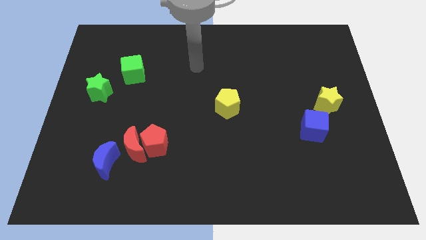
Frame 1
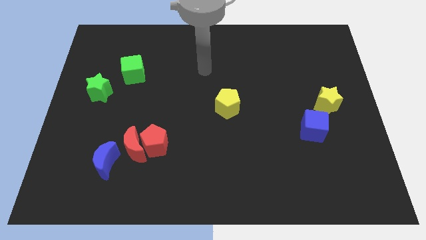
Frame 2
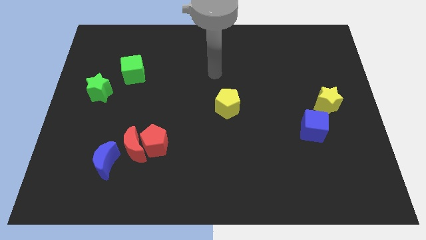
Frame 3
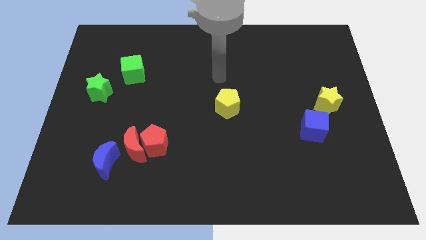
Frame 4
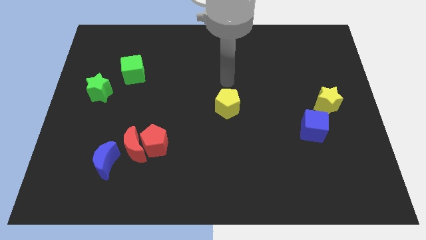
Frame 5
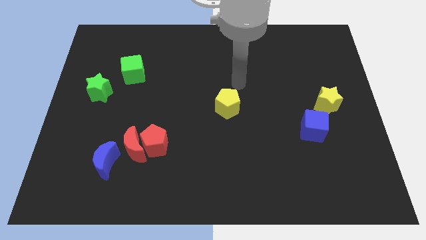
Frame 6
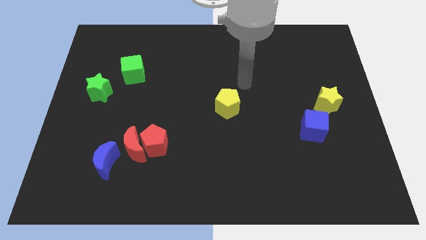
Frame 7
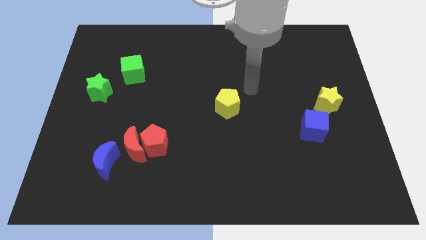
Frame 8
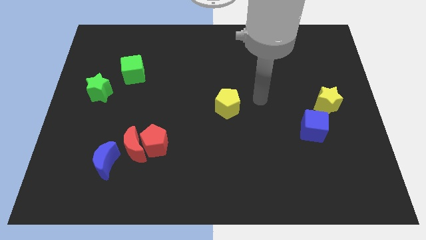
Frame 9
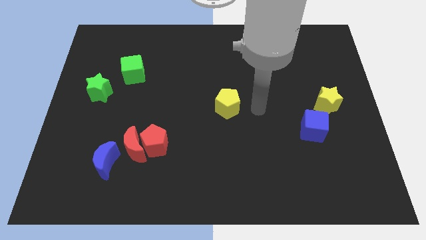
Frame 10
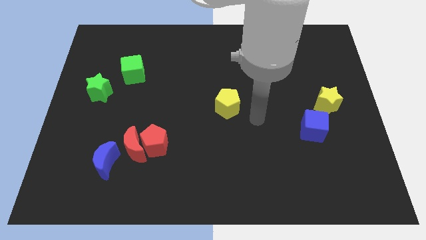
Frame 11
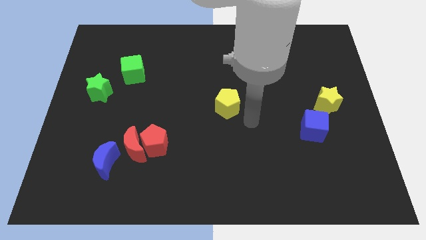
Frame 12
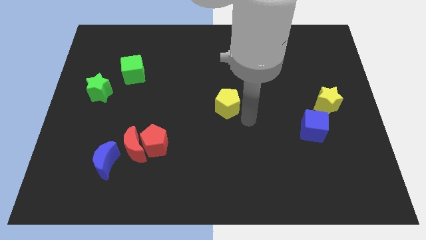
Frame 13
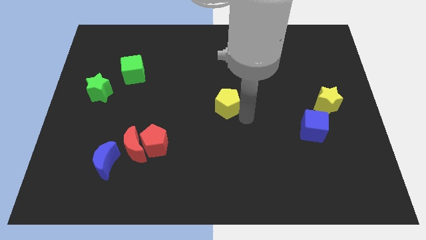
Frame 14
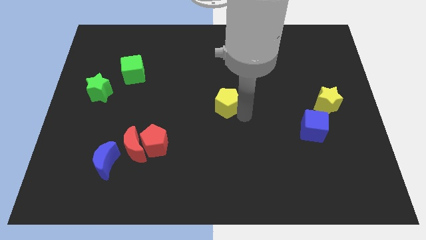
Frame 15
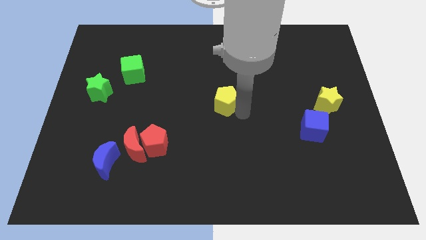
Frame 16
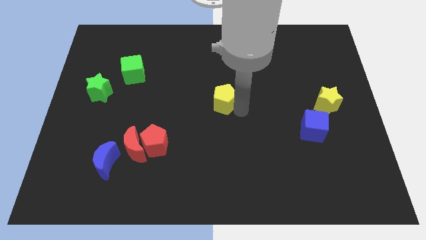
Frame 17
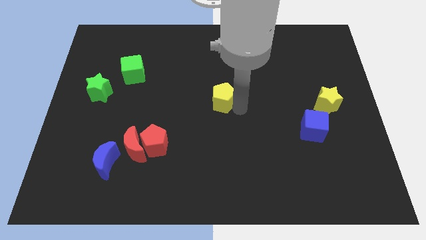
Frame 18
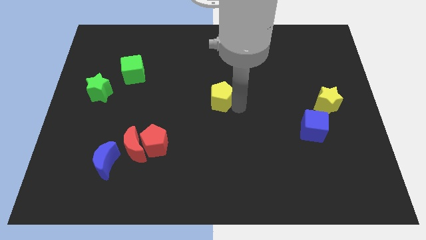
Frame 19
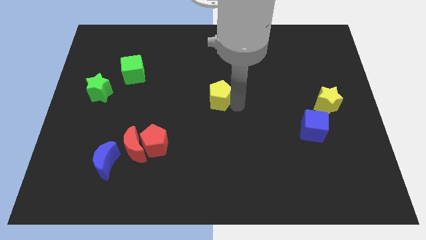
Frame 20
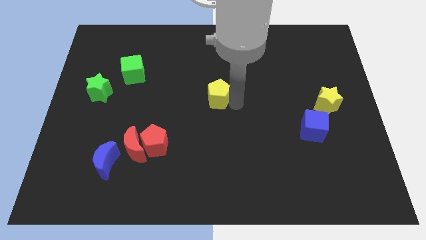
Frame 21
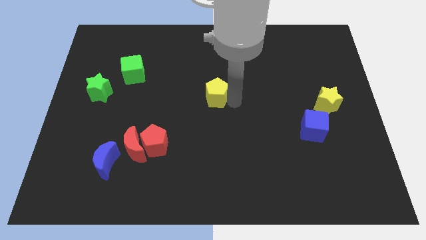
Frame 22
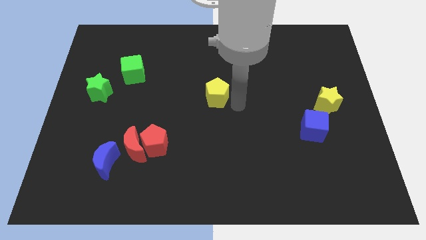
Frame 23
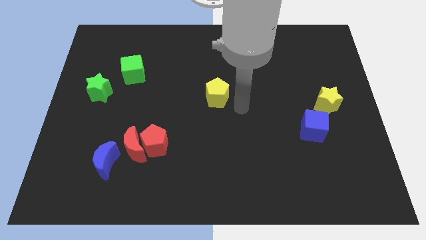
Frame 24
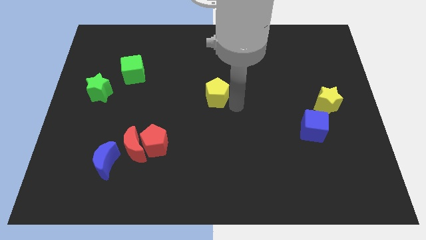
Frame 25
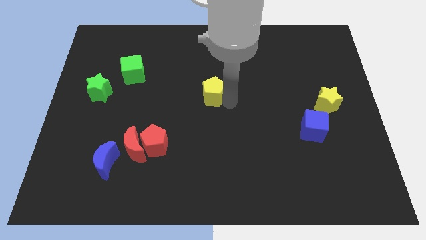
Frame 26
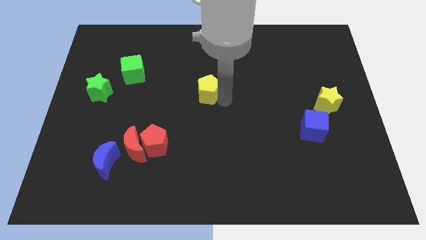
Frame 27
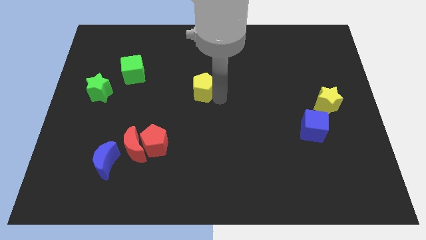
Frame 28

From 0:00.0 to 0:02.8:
slightly push the yellow pentagon up and to the left

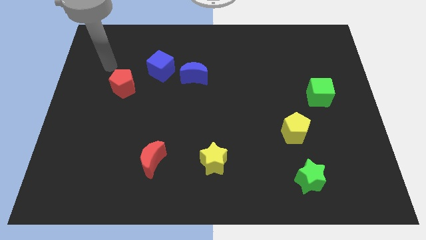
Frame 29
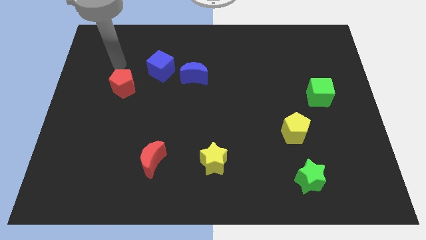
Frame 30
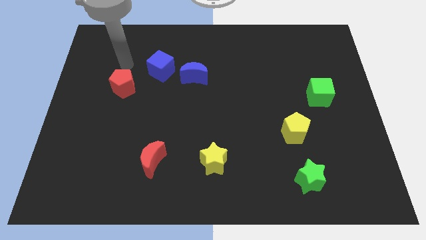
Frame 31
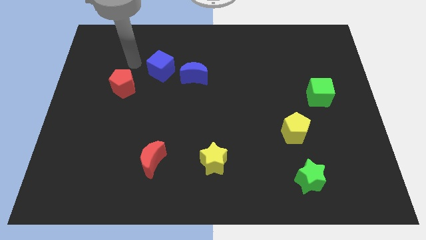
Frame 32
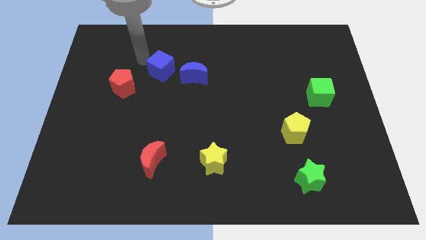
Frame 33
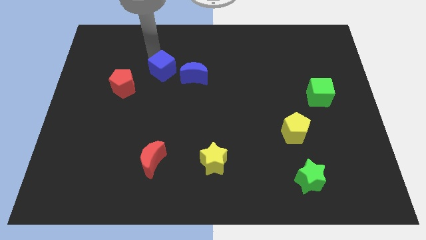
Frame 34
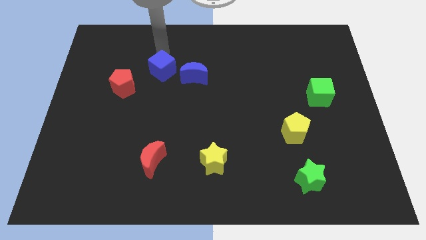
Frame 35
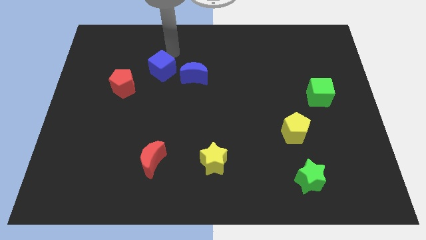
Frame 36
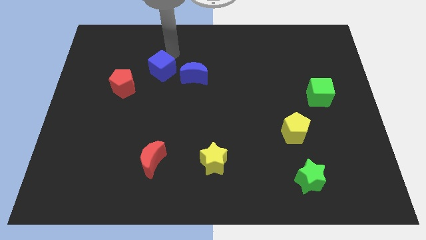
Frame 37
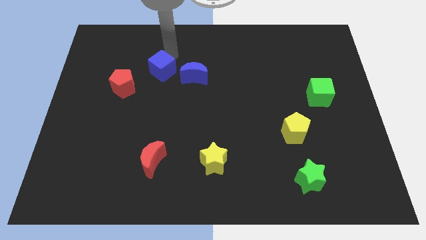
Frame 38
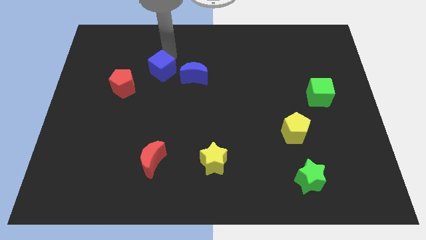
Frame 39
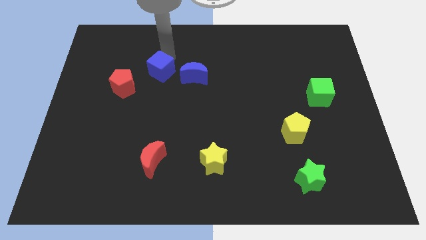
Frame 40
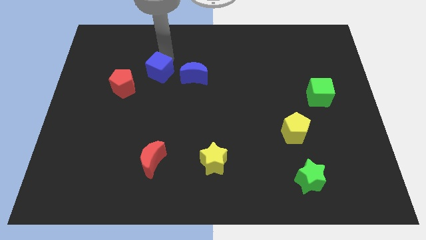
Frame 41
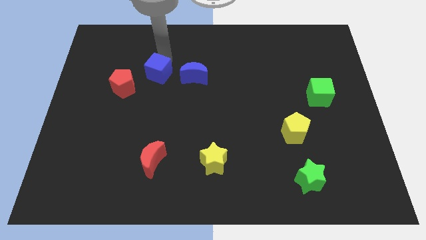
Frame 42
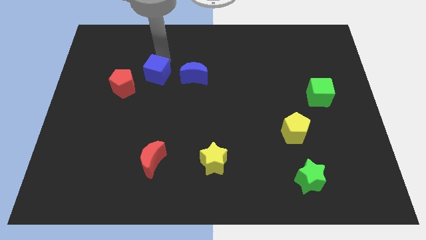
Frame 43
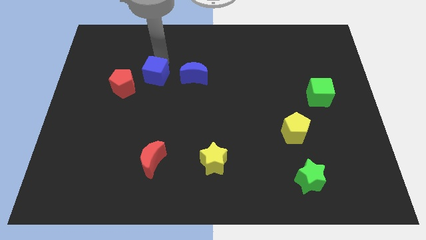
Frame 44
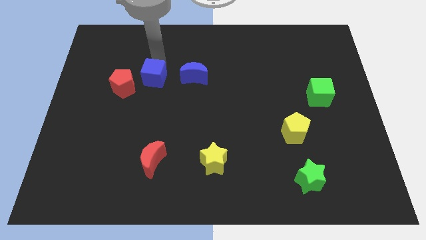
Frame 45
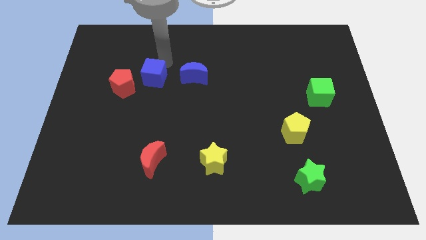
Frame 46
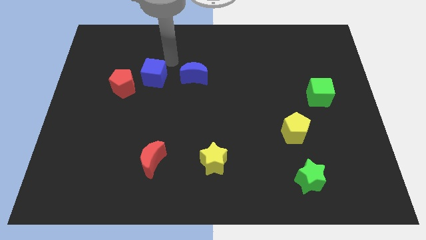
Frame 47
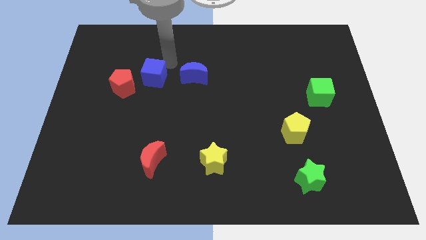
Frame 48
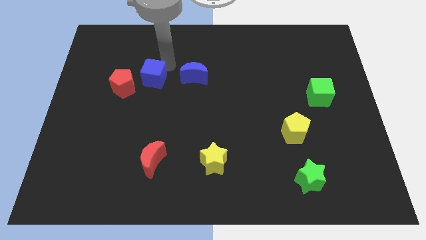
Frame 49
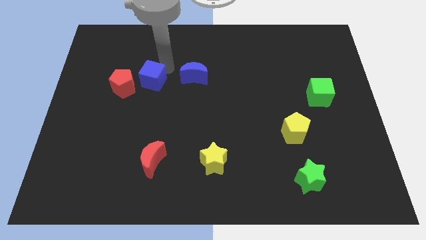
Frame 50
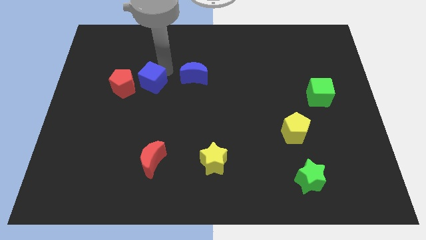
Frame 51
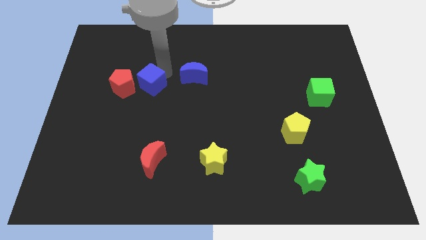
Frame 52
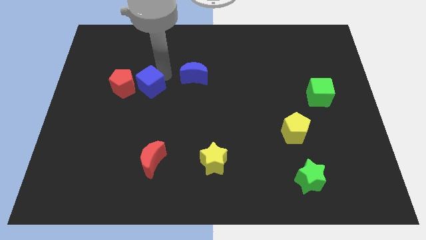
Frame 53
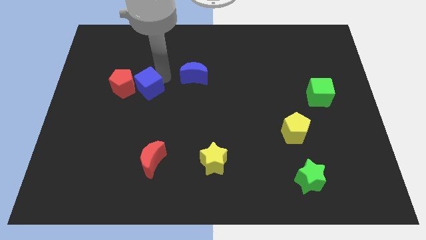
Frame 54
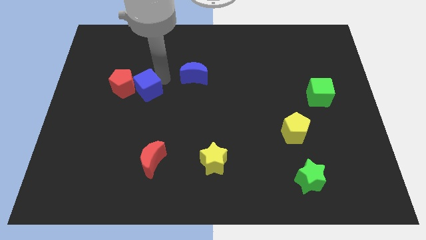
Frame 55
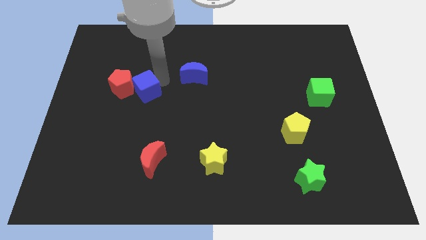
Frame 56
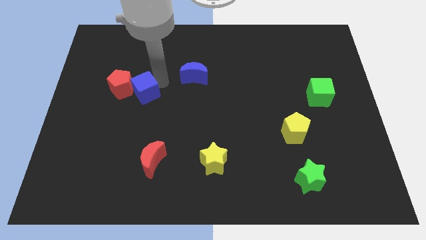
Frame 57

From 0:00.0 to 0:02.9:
slightly push the blue cube diagonally downwards and to the left

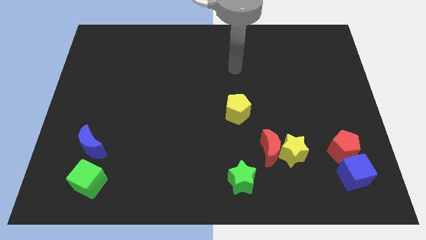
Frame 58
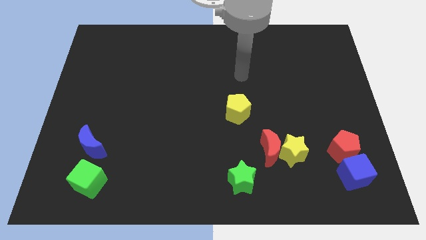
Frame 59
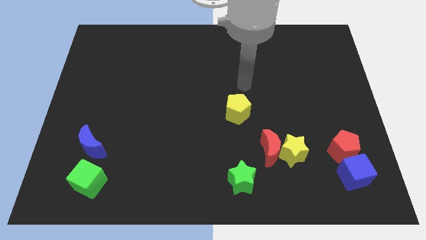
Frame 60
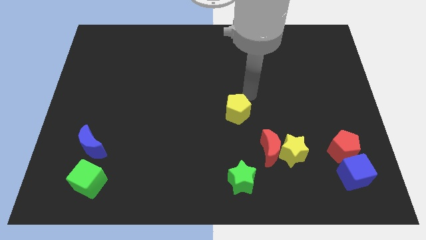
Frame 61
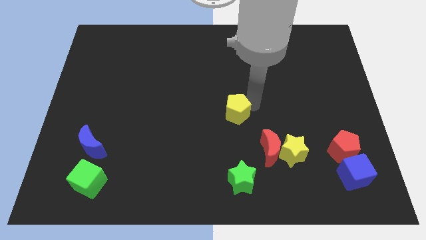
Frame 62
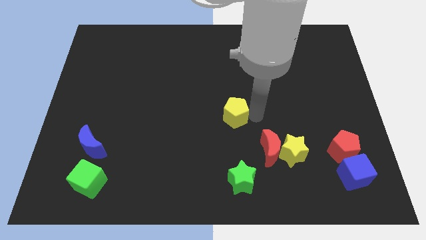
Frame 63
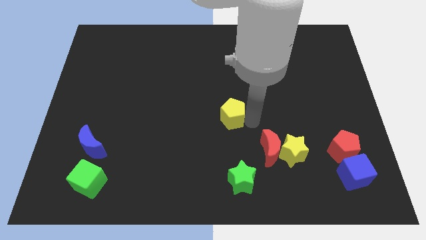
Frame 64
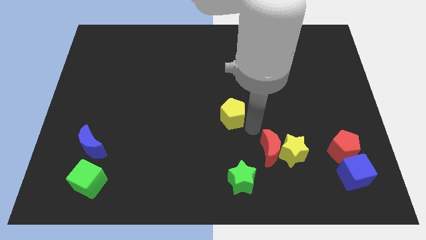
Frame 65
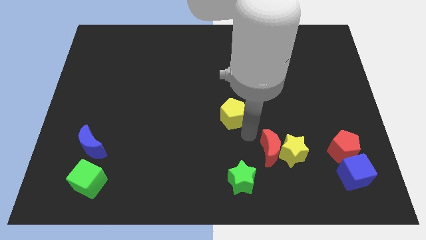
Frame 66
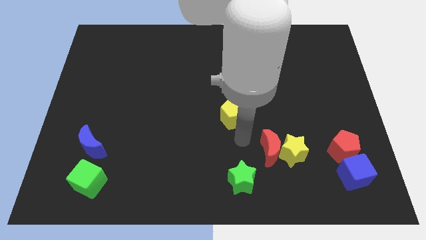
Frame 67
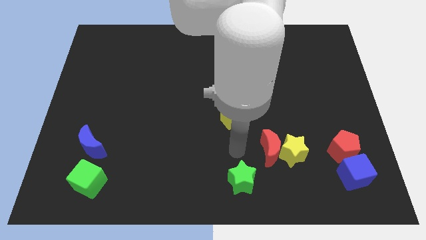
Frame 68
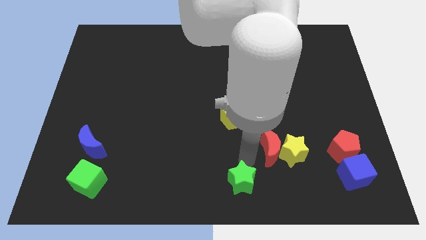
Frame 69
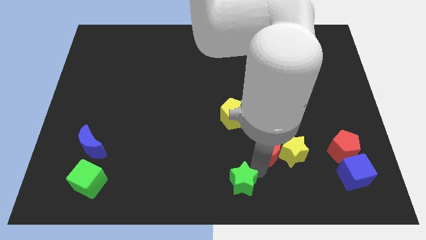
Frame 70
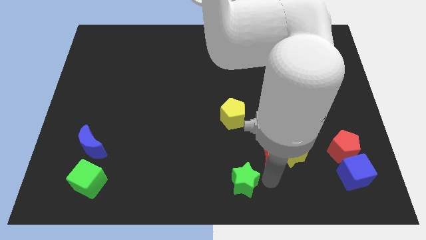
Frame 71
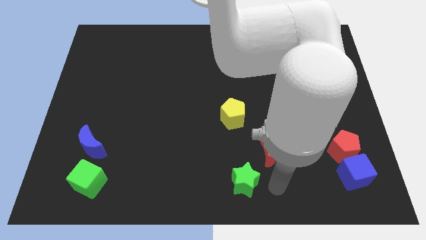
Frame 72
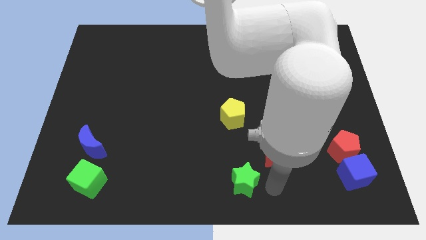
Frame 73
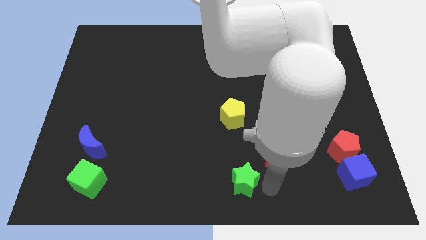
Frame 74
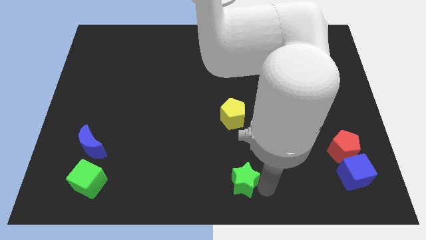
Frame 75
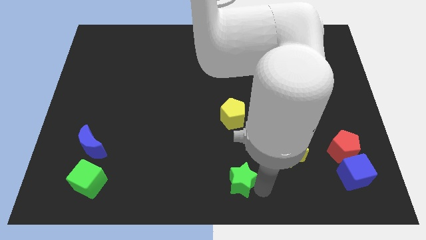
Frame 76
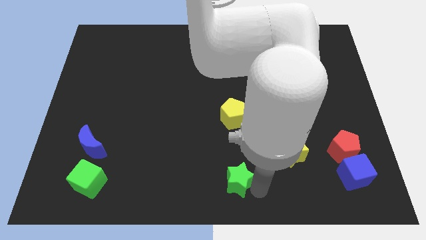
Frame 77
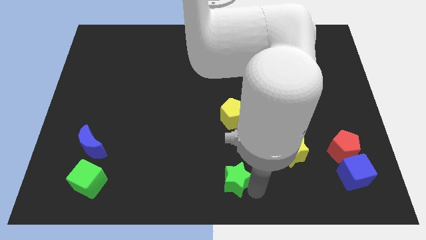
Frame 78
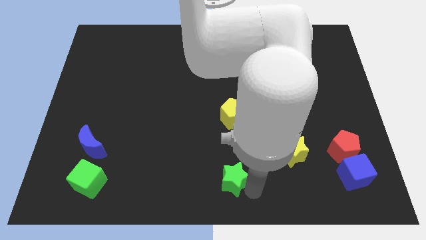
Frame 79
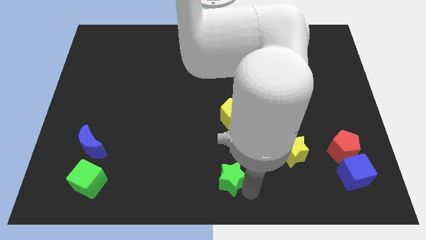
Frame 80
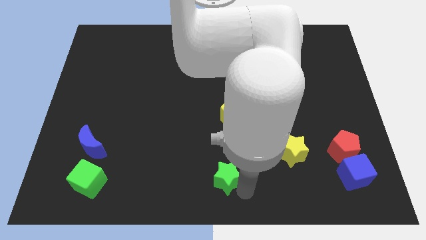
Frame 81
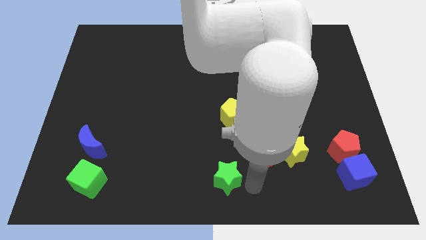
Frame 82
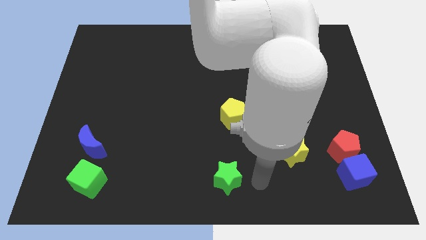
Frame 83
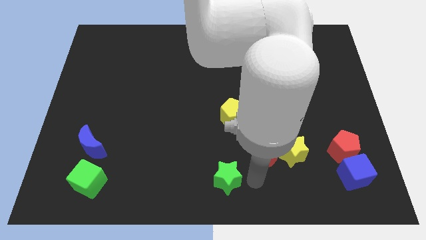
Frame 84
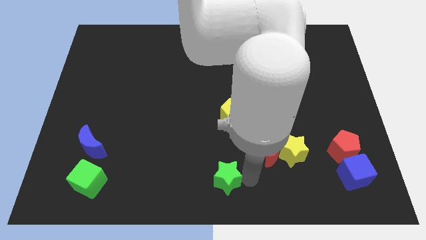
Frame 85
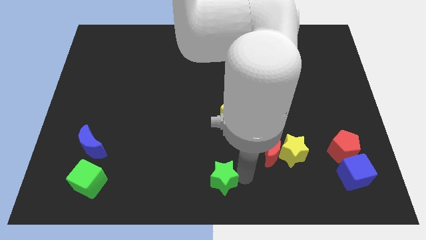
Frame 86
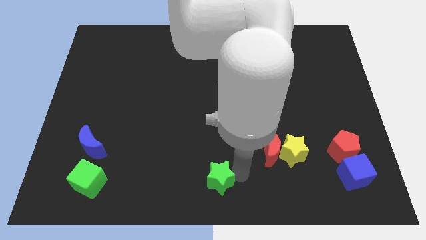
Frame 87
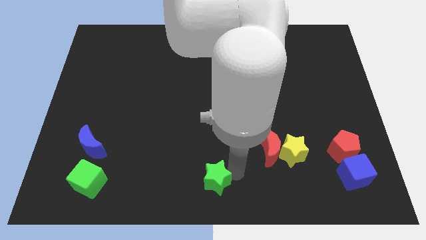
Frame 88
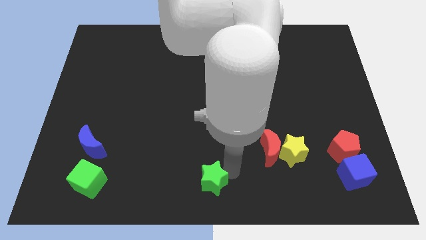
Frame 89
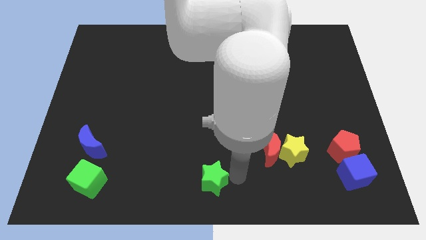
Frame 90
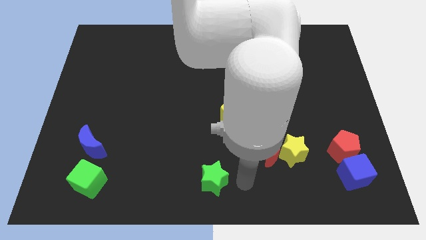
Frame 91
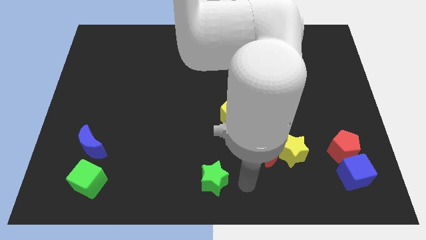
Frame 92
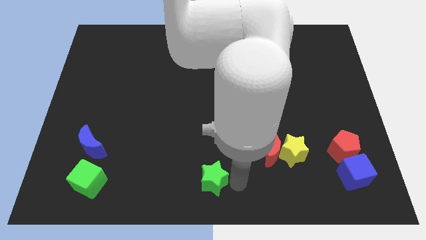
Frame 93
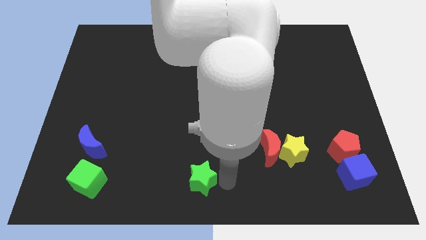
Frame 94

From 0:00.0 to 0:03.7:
move the green star slightly to the left
